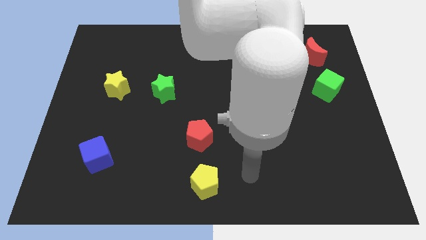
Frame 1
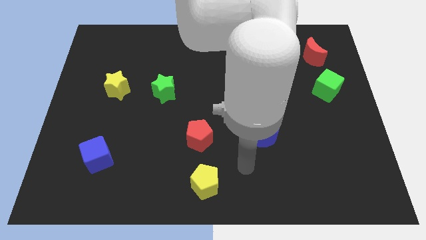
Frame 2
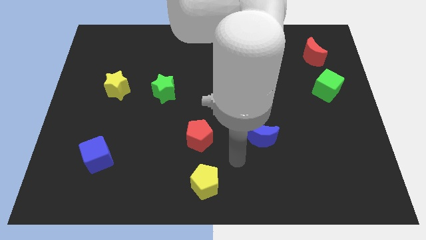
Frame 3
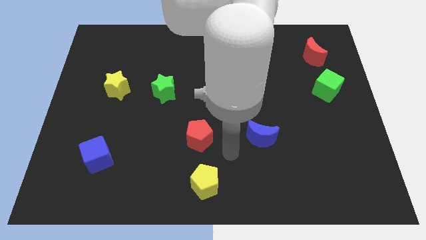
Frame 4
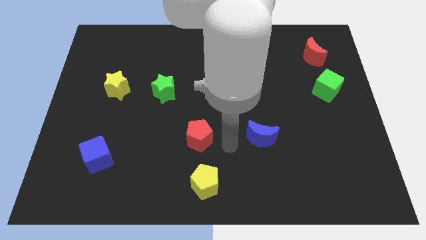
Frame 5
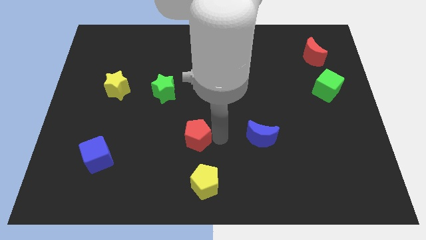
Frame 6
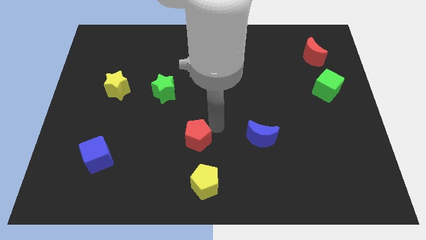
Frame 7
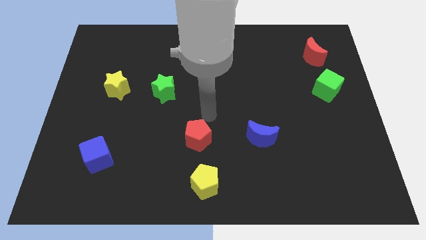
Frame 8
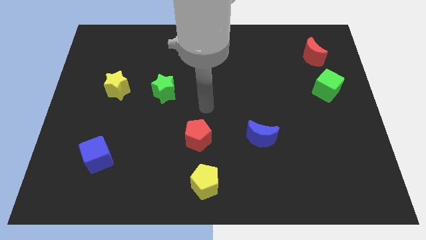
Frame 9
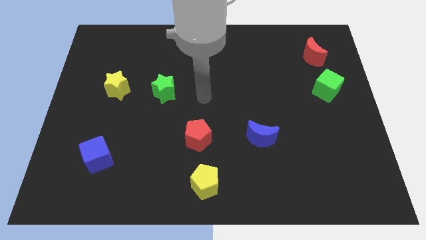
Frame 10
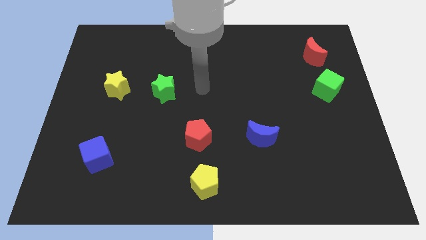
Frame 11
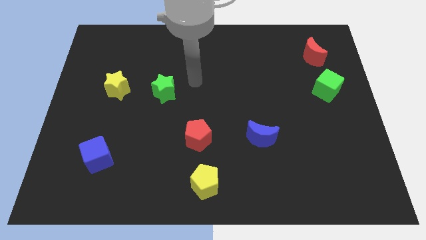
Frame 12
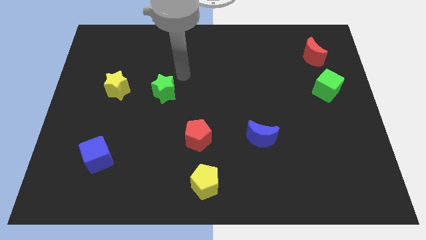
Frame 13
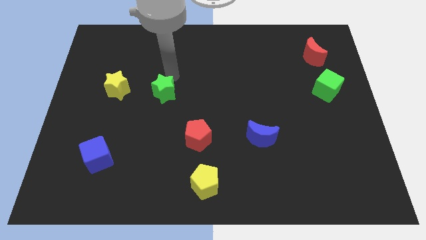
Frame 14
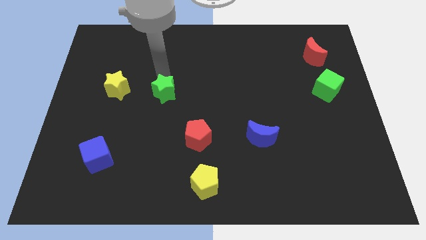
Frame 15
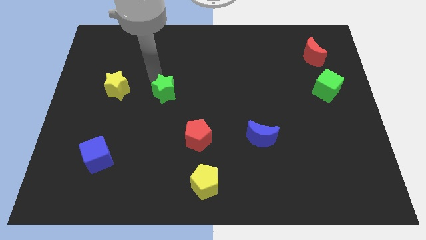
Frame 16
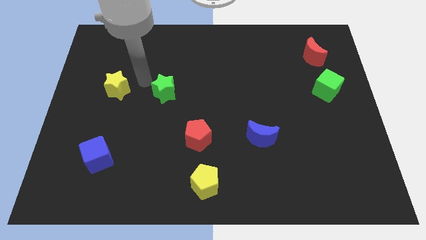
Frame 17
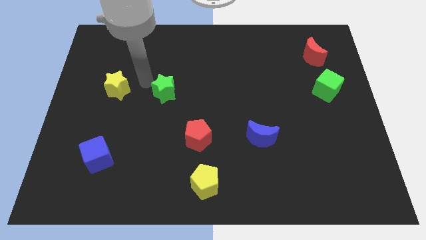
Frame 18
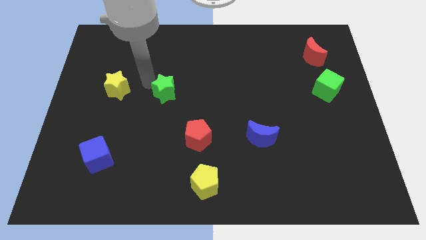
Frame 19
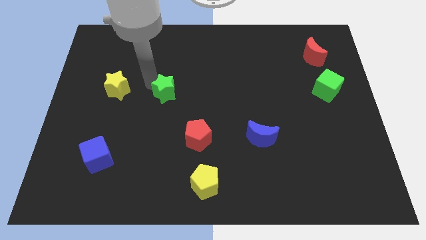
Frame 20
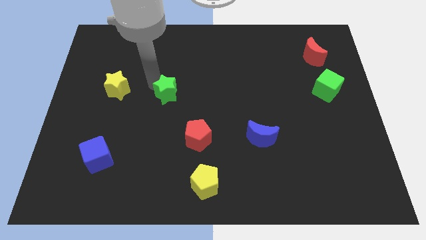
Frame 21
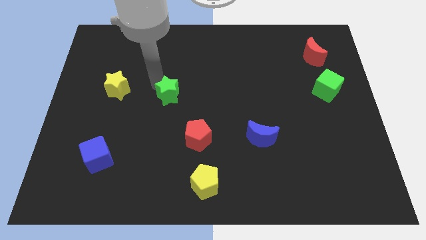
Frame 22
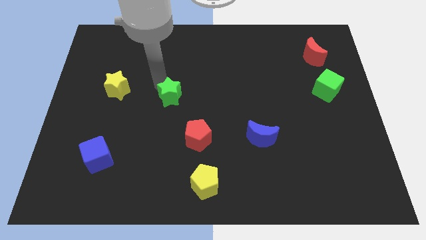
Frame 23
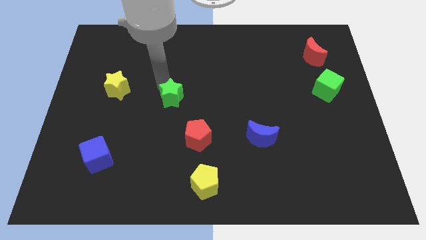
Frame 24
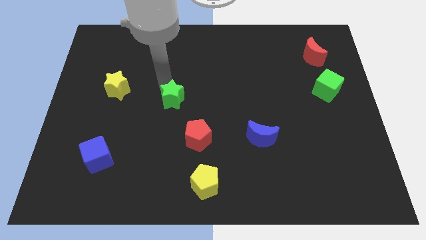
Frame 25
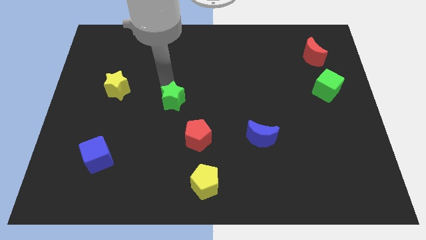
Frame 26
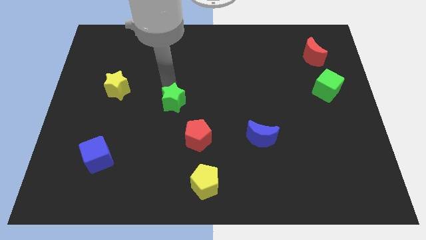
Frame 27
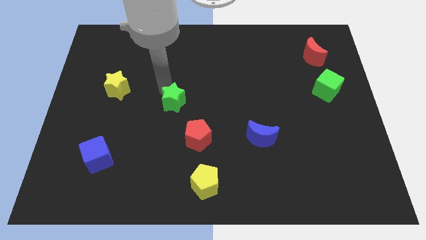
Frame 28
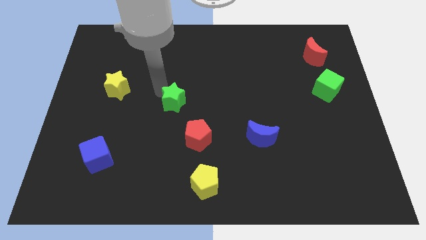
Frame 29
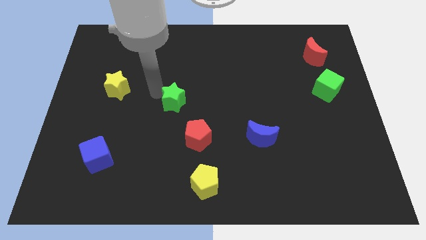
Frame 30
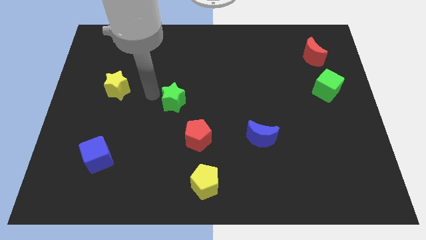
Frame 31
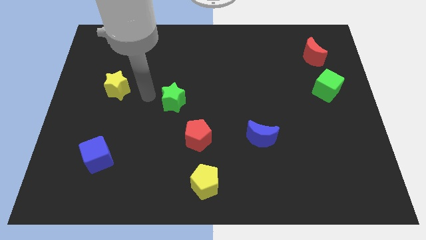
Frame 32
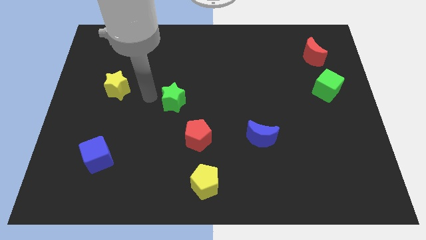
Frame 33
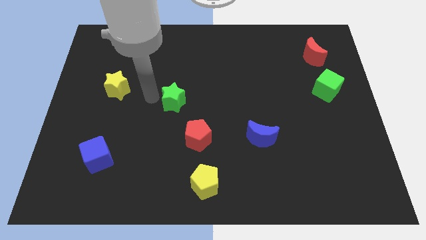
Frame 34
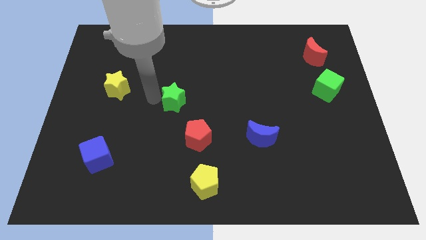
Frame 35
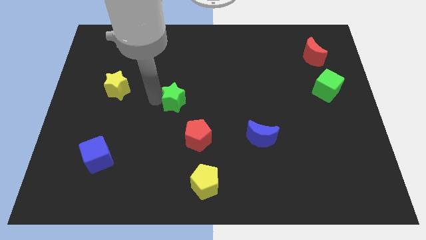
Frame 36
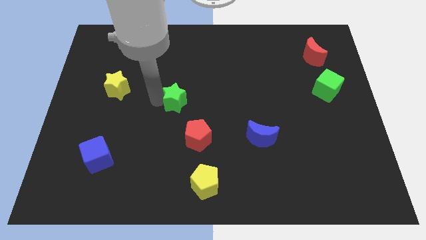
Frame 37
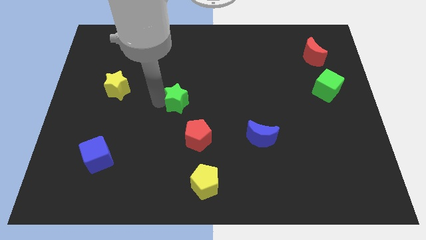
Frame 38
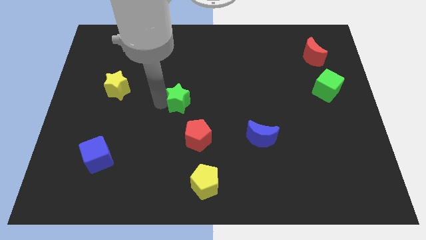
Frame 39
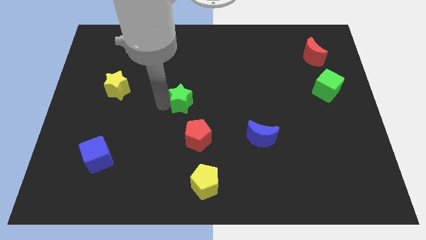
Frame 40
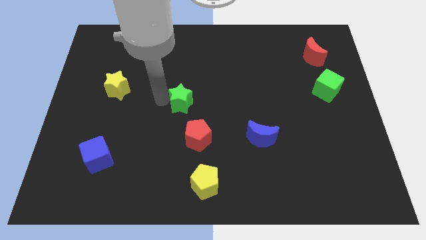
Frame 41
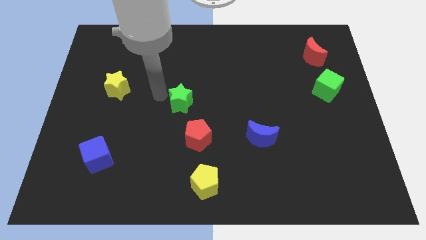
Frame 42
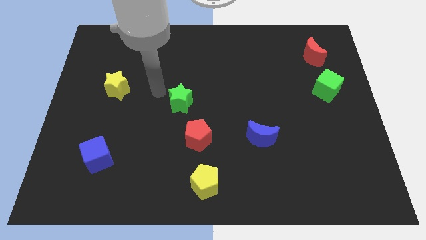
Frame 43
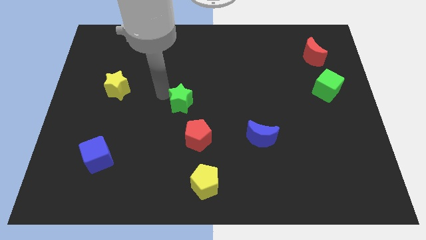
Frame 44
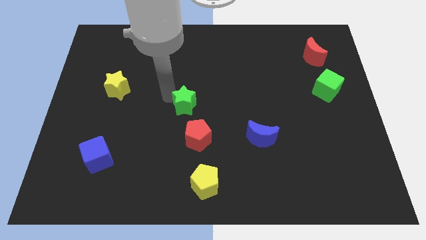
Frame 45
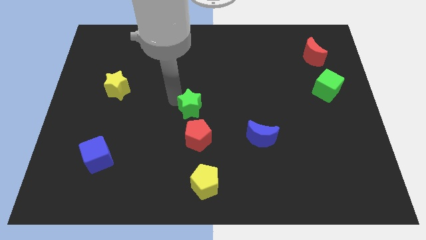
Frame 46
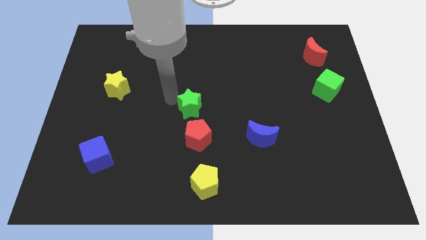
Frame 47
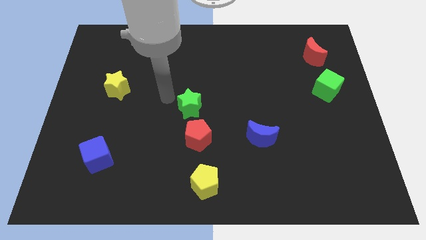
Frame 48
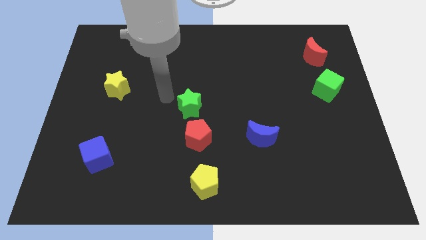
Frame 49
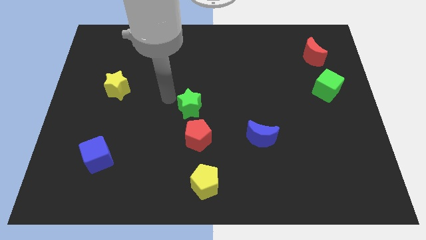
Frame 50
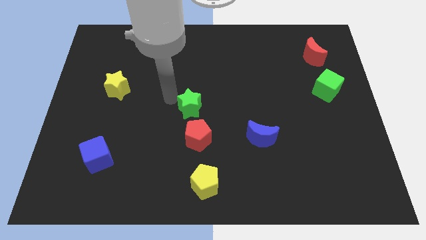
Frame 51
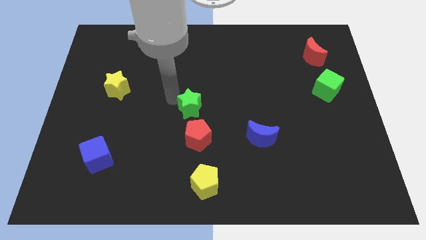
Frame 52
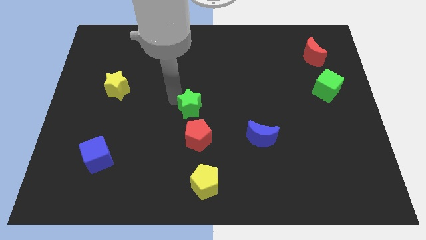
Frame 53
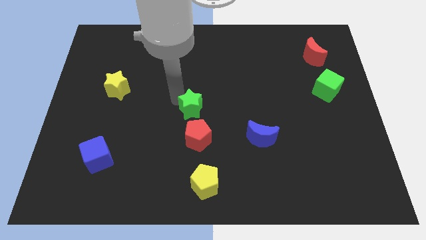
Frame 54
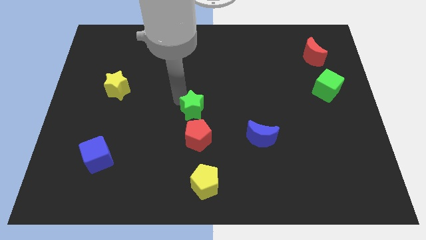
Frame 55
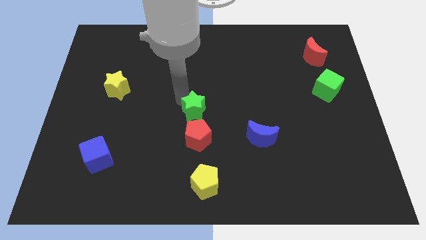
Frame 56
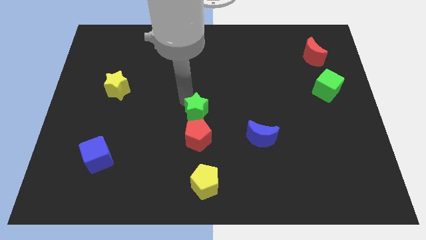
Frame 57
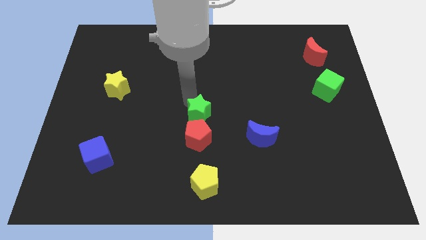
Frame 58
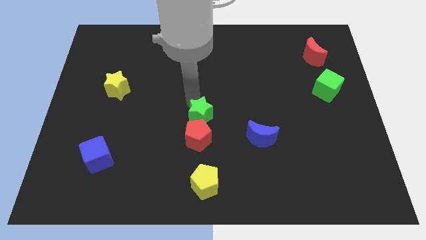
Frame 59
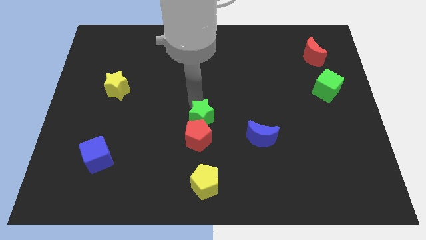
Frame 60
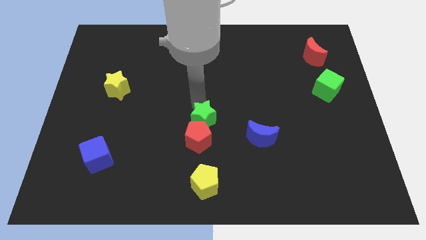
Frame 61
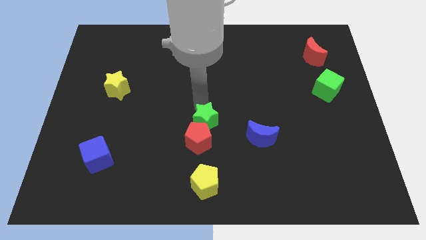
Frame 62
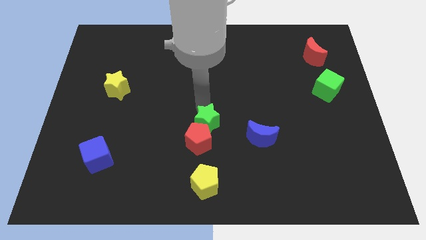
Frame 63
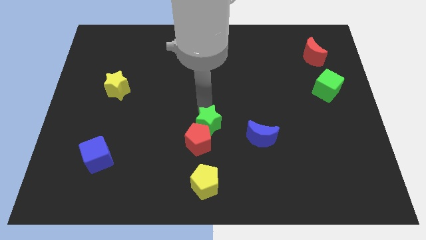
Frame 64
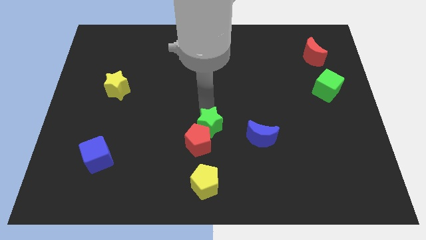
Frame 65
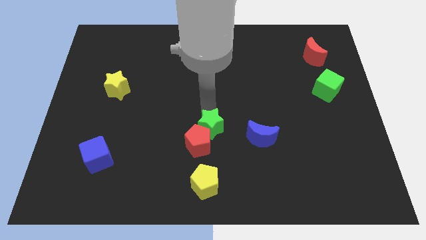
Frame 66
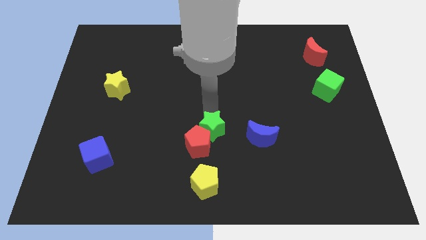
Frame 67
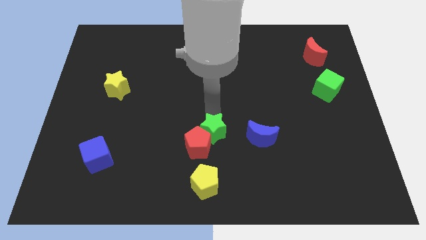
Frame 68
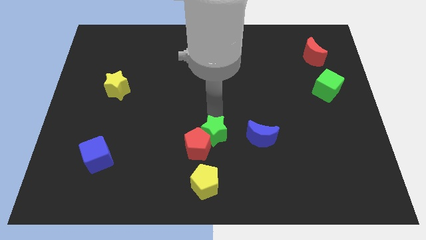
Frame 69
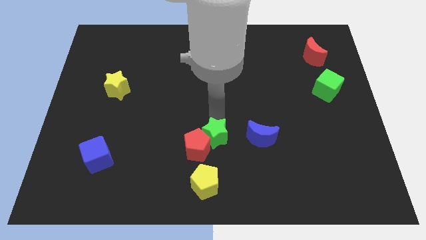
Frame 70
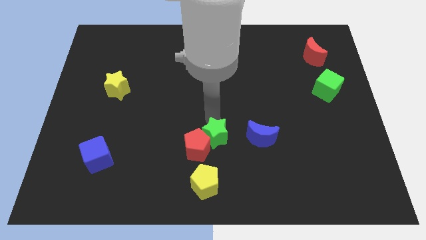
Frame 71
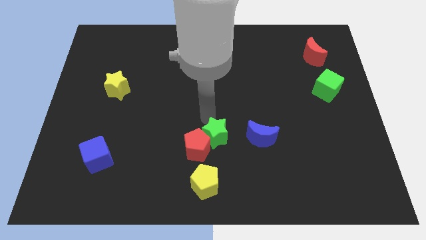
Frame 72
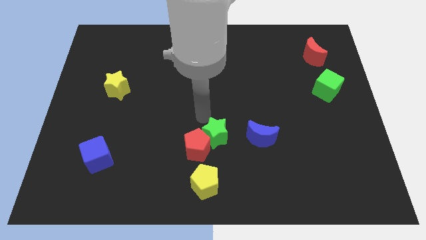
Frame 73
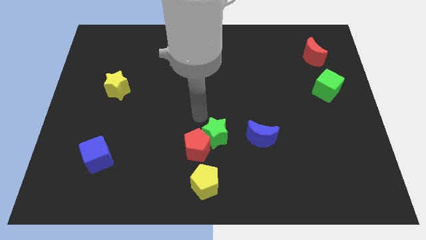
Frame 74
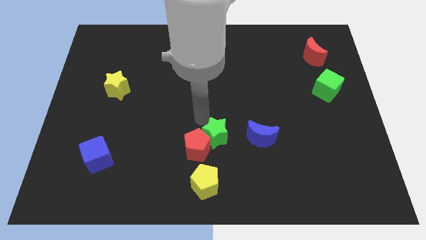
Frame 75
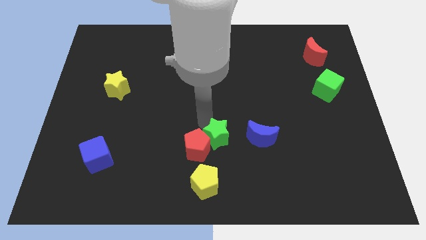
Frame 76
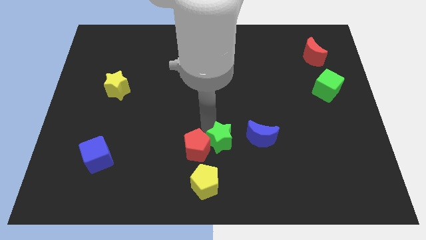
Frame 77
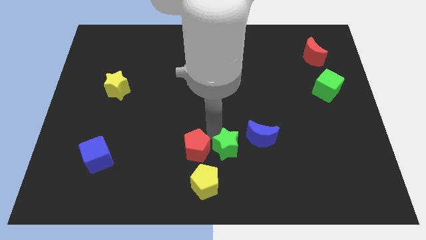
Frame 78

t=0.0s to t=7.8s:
push the green star diagonally down and to the right
